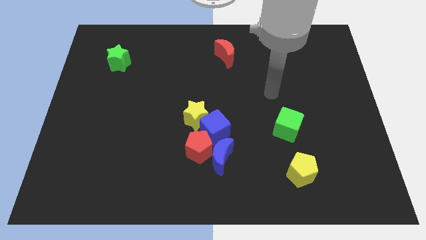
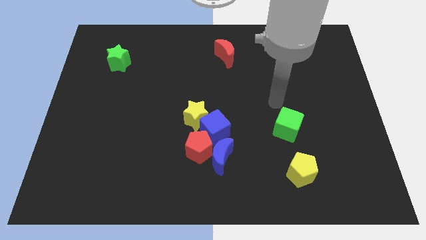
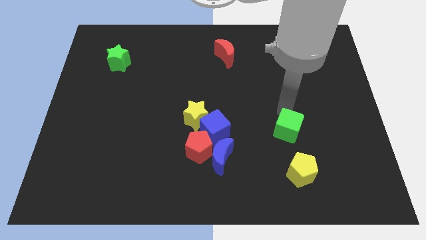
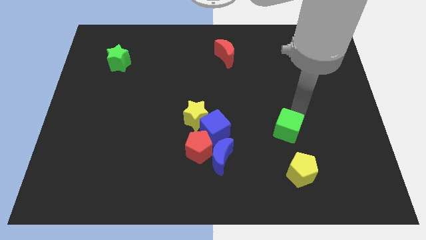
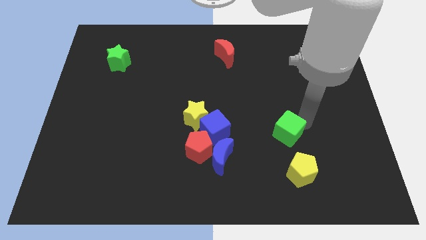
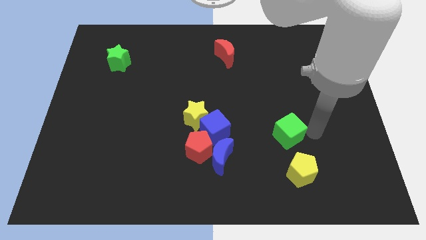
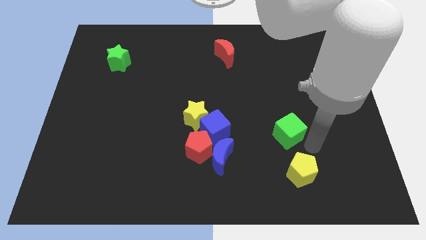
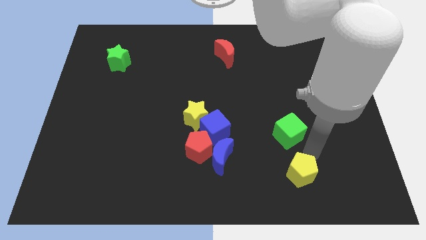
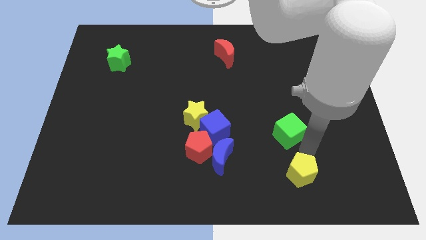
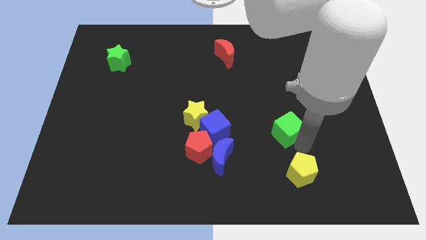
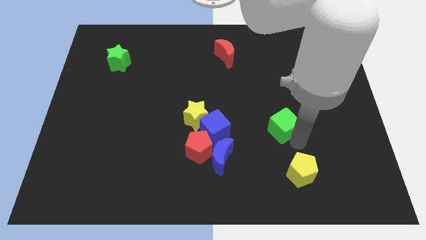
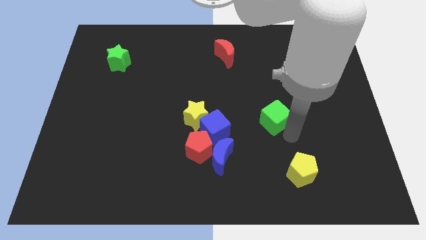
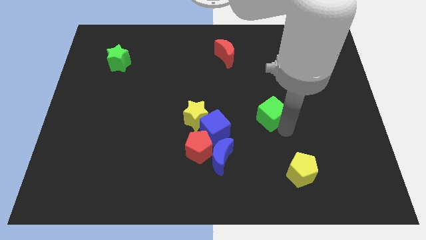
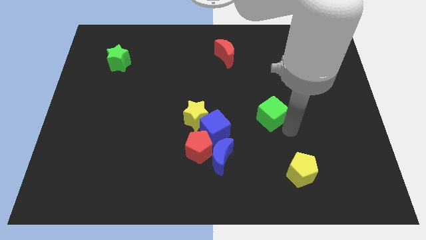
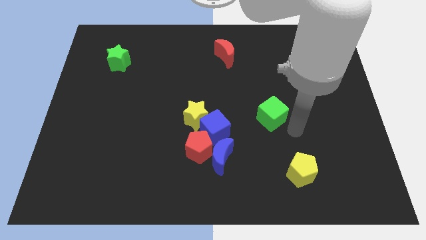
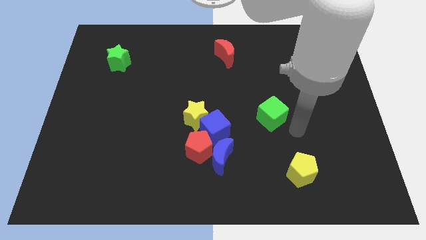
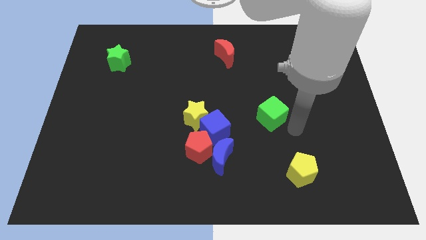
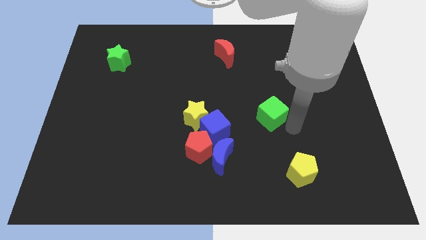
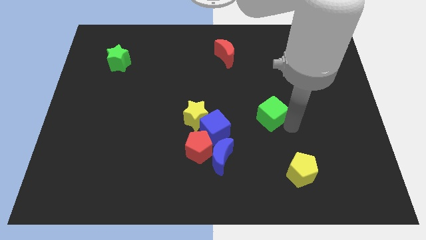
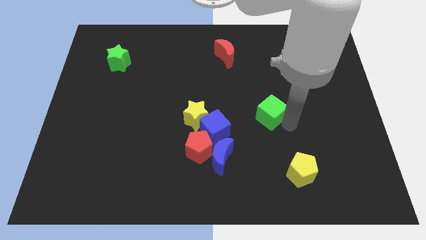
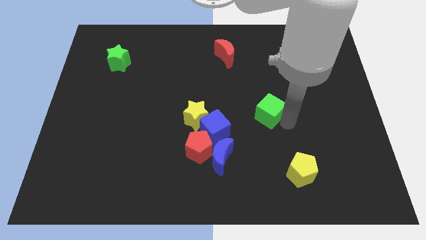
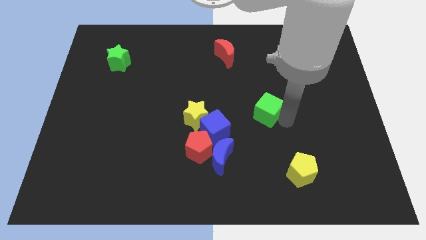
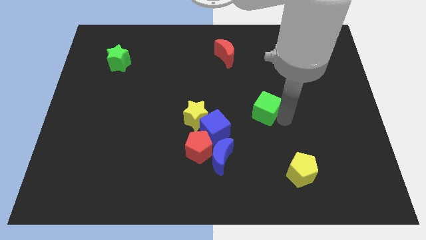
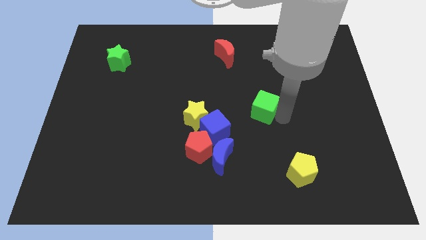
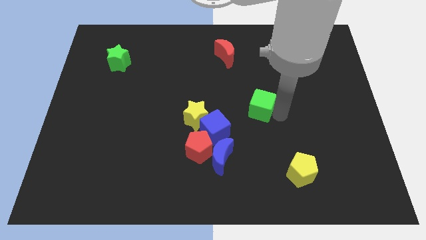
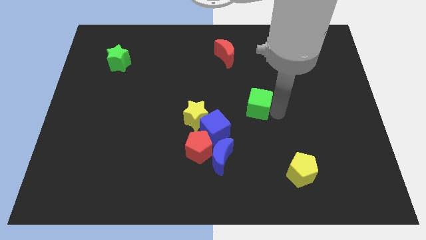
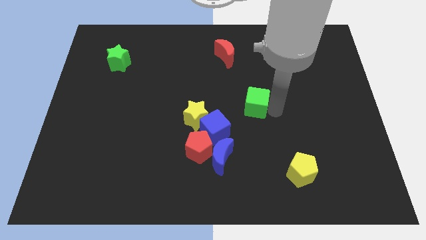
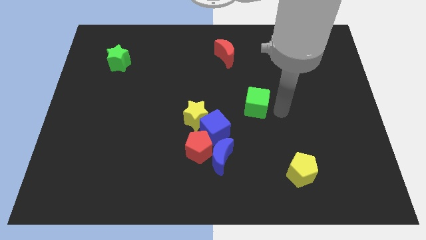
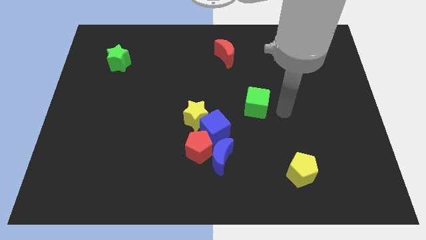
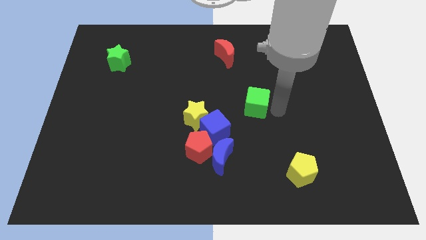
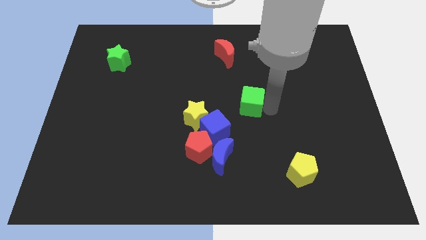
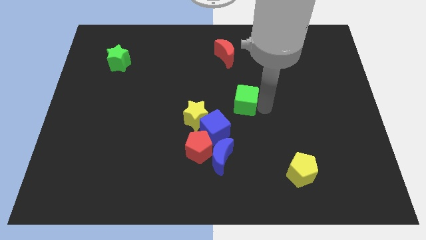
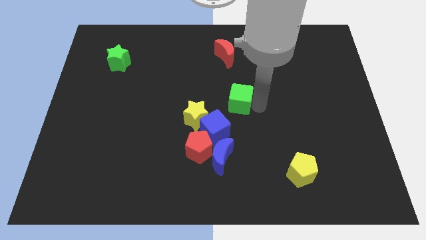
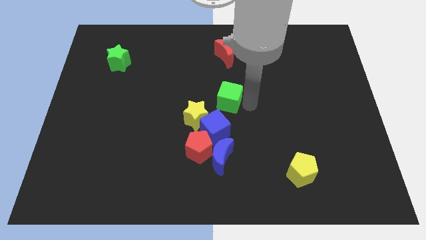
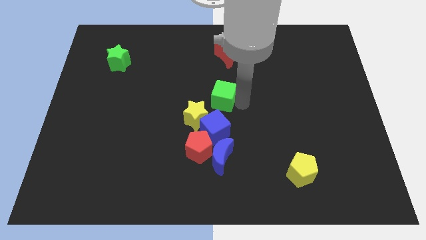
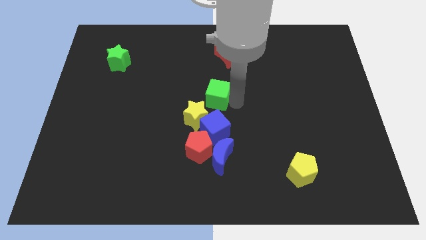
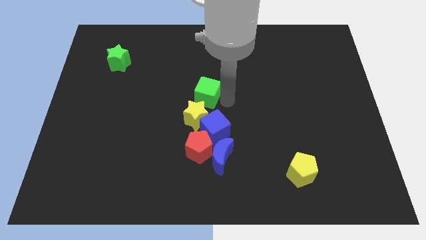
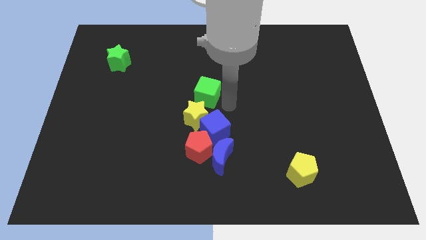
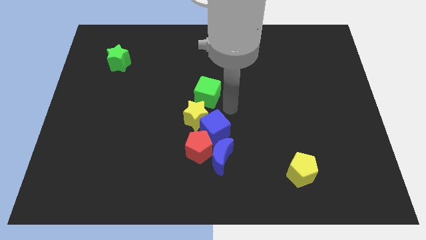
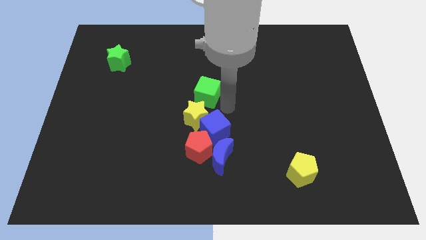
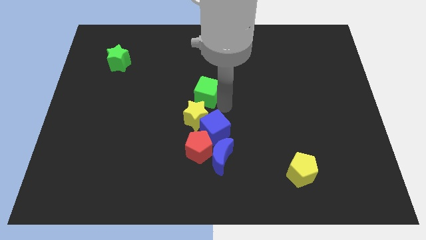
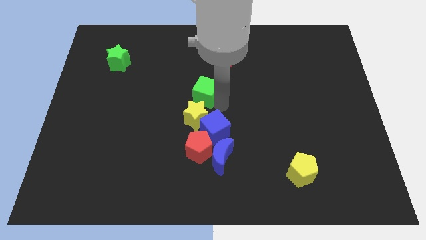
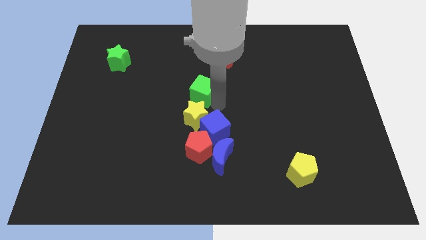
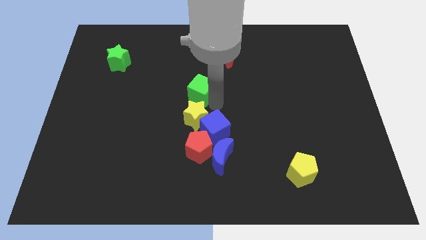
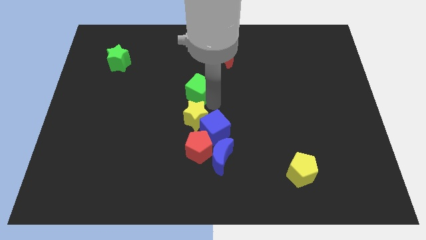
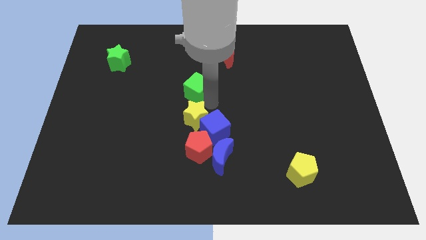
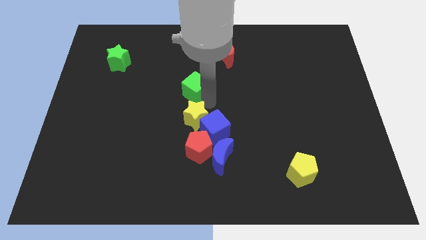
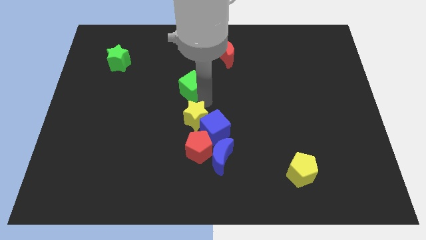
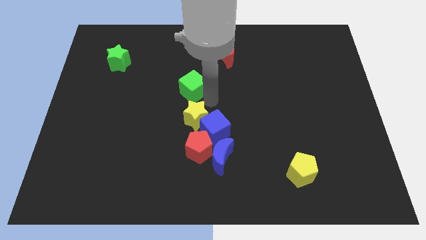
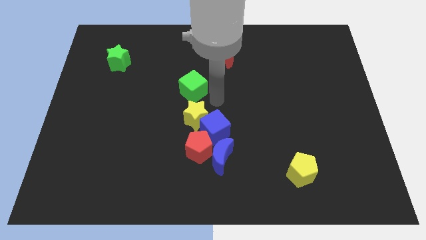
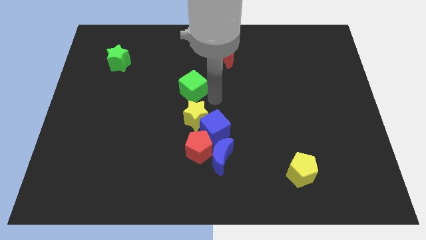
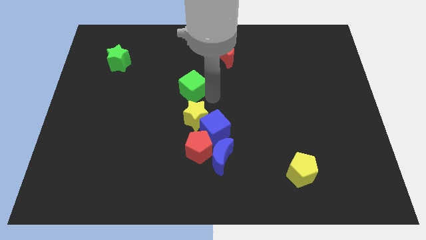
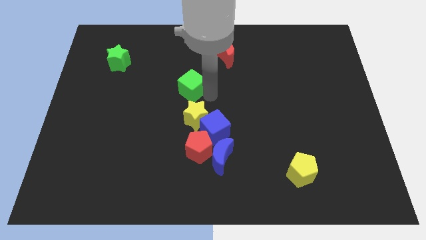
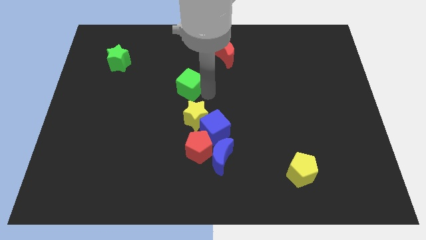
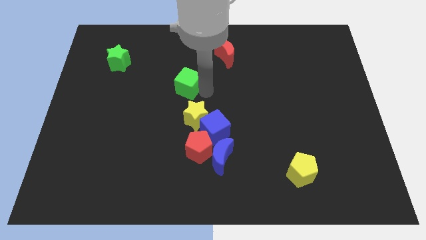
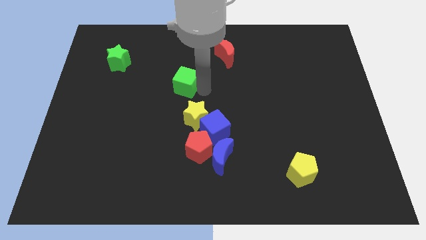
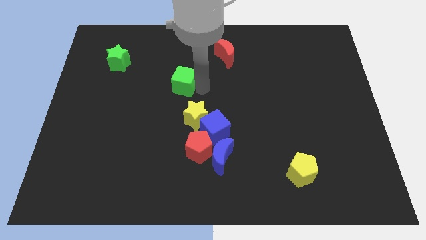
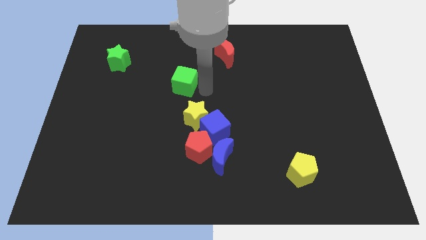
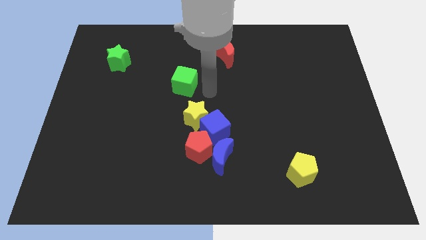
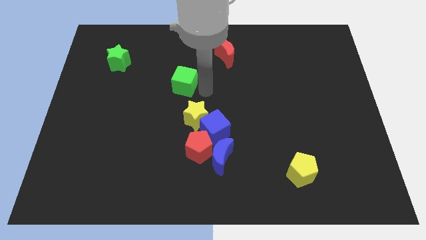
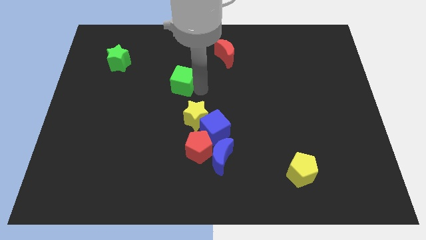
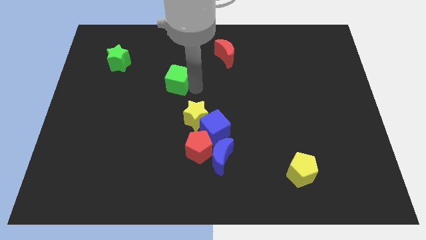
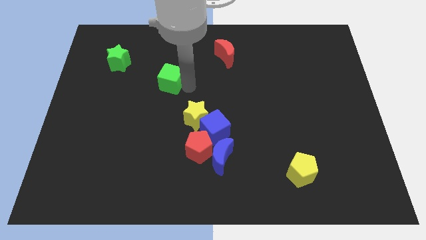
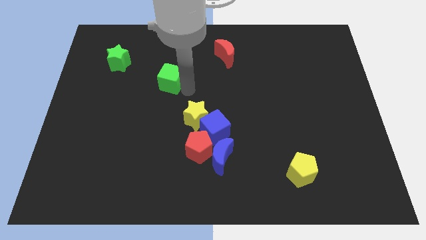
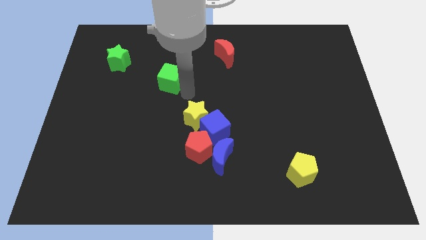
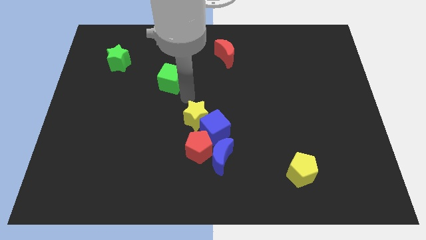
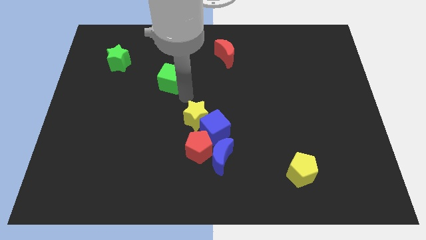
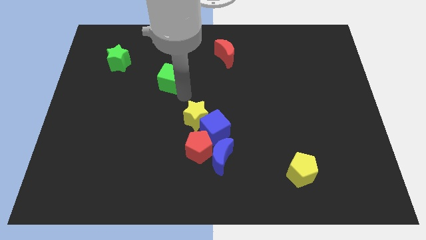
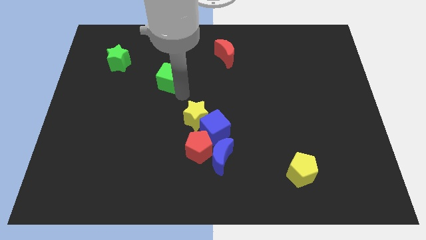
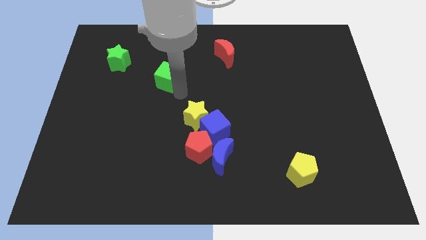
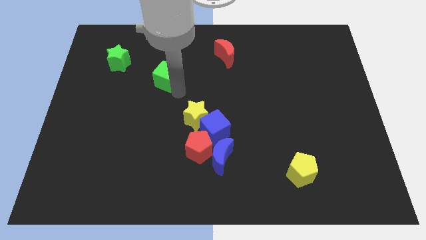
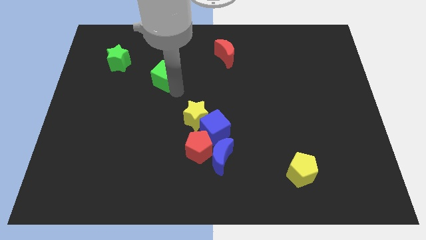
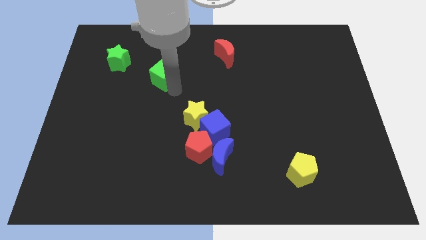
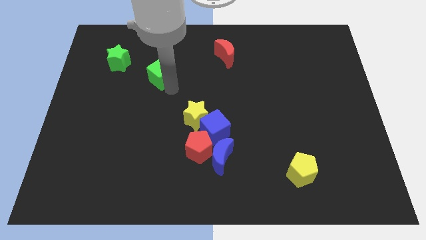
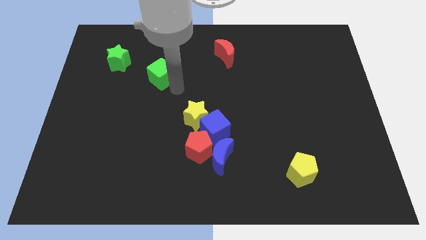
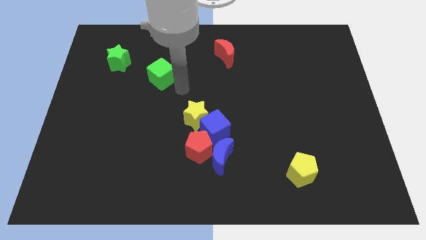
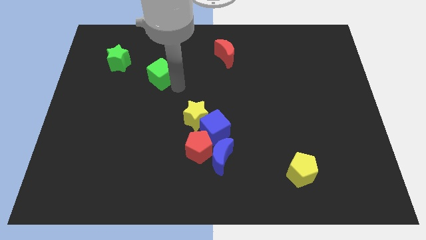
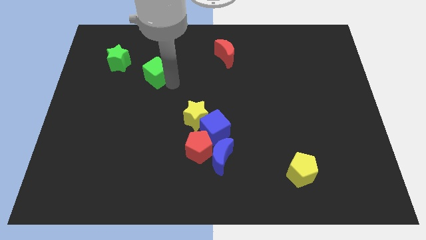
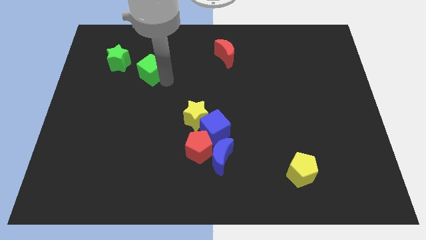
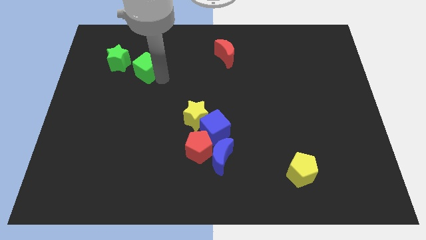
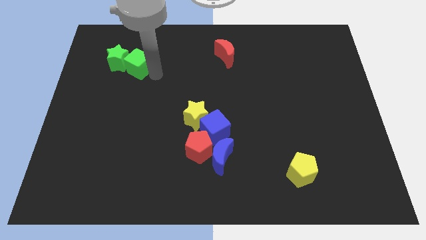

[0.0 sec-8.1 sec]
move the green cube to the green star
